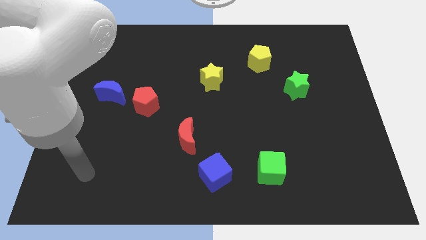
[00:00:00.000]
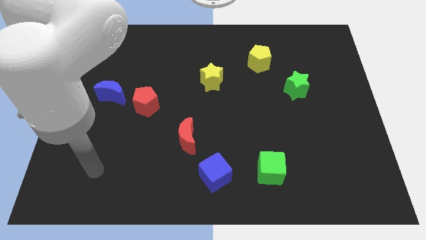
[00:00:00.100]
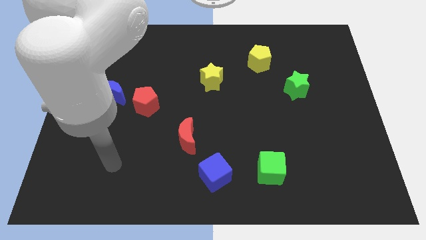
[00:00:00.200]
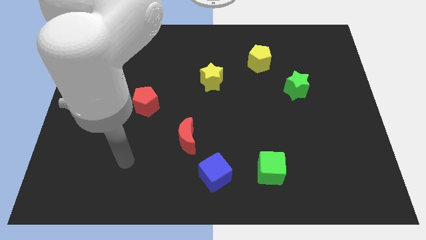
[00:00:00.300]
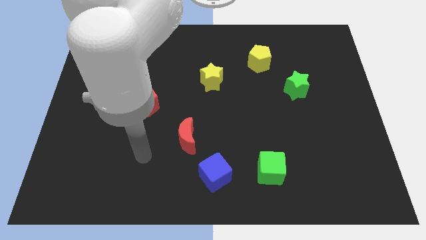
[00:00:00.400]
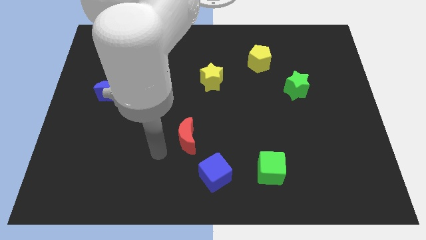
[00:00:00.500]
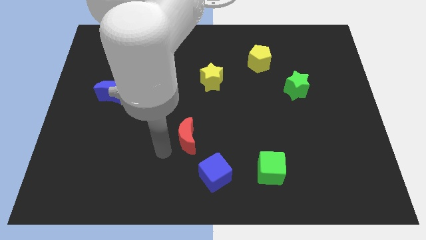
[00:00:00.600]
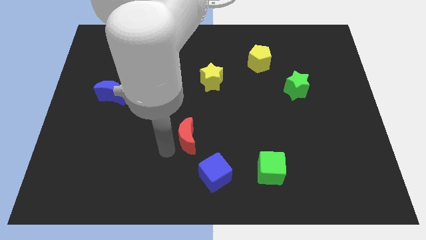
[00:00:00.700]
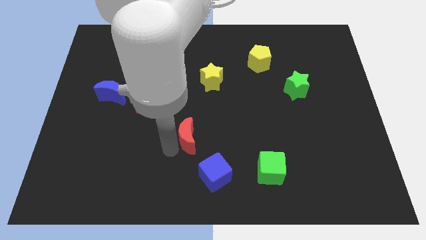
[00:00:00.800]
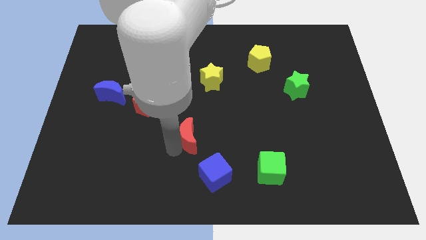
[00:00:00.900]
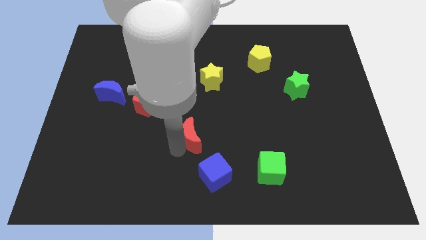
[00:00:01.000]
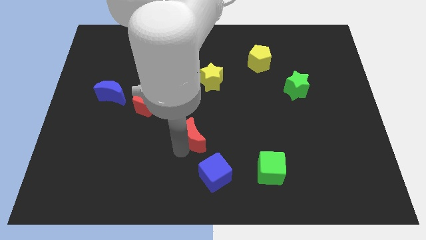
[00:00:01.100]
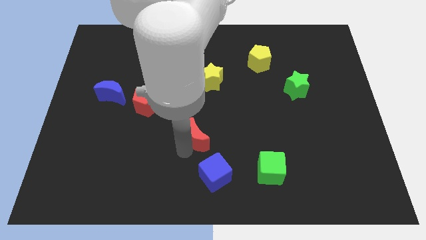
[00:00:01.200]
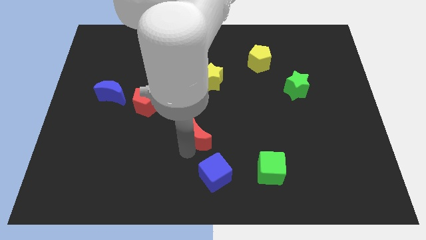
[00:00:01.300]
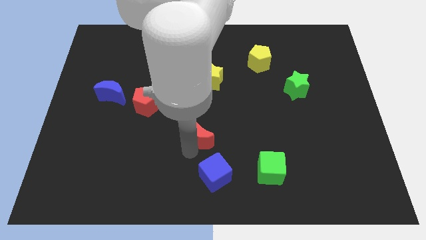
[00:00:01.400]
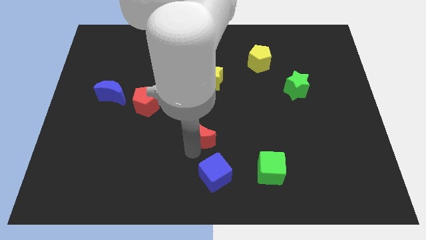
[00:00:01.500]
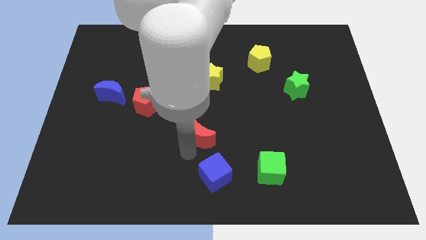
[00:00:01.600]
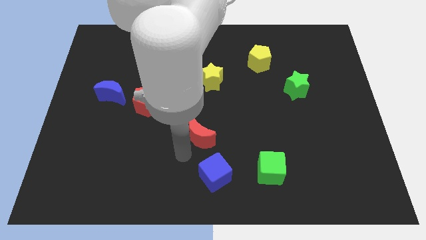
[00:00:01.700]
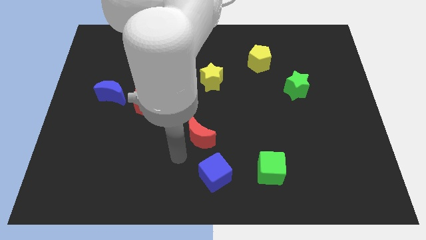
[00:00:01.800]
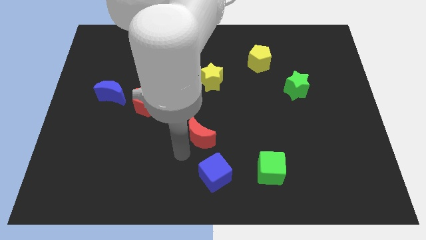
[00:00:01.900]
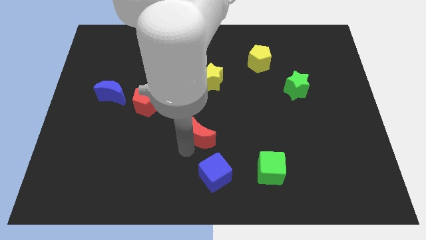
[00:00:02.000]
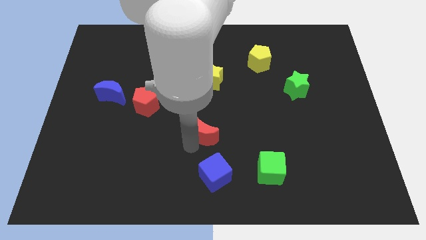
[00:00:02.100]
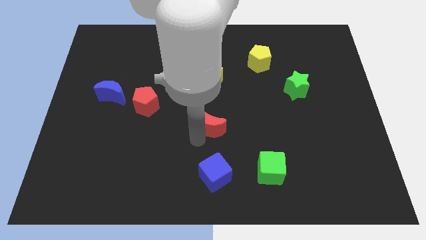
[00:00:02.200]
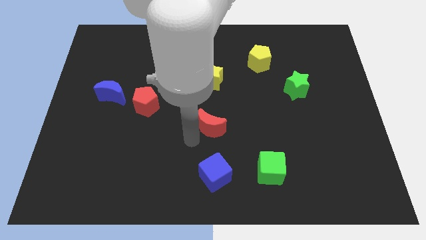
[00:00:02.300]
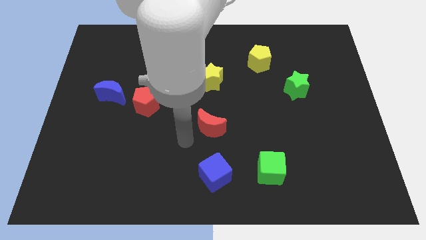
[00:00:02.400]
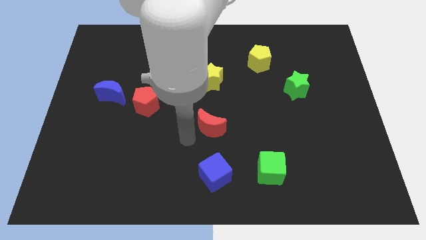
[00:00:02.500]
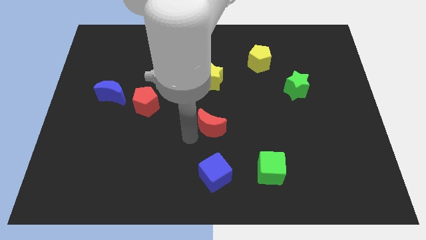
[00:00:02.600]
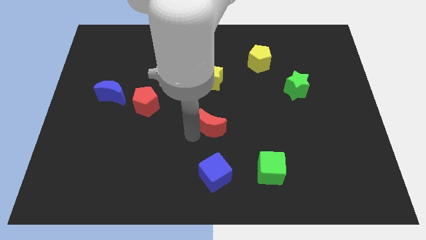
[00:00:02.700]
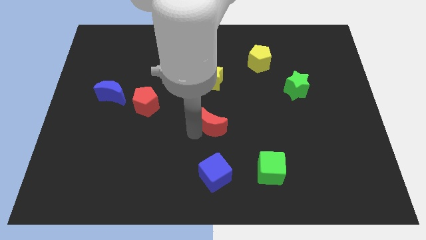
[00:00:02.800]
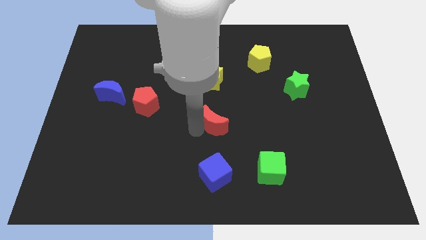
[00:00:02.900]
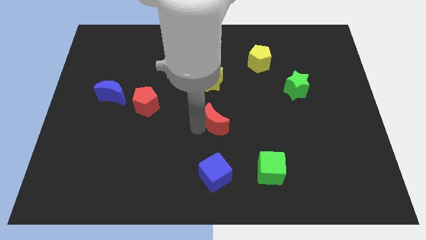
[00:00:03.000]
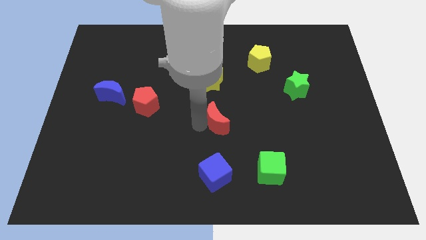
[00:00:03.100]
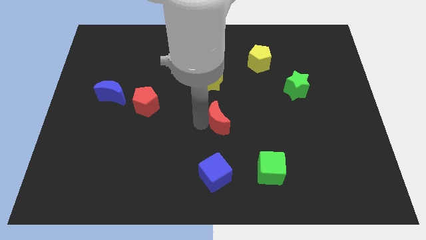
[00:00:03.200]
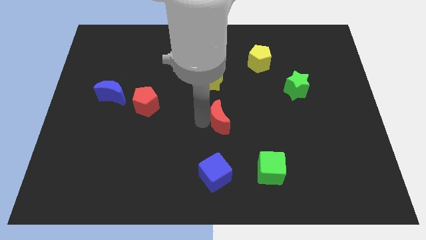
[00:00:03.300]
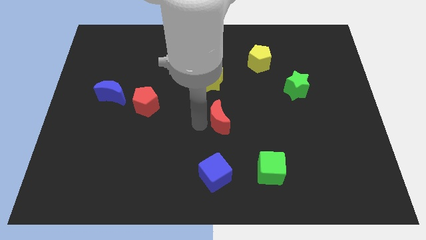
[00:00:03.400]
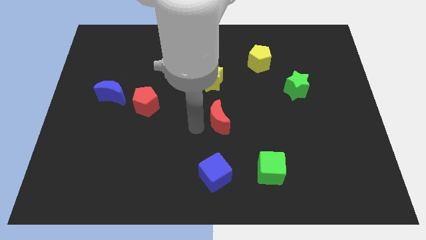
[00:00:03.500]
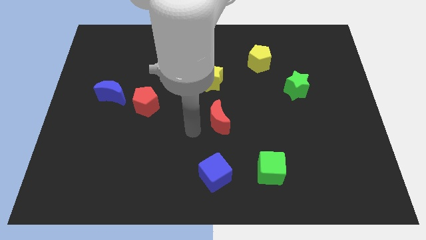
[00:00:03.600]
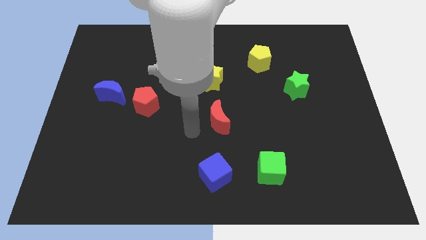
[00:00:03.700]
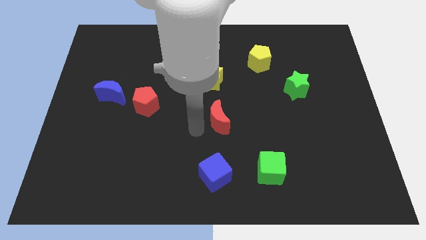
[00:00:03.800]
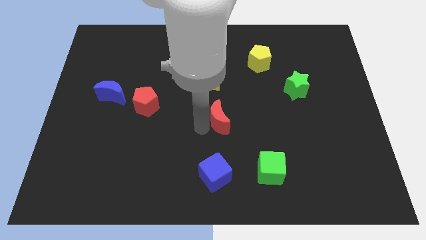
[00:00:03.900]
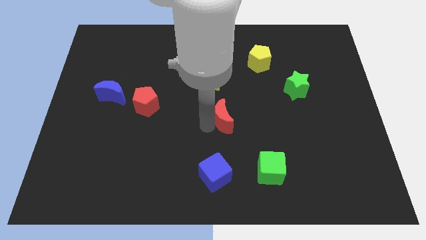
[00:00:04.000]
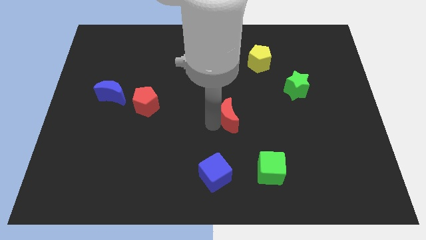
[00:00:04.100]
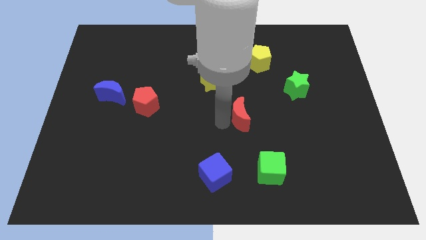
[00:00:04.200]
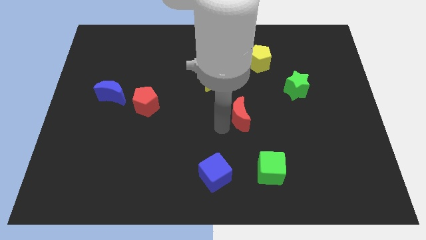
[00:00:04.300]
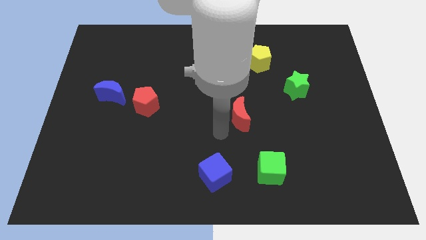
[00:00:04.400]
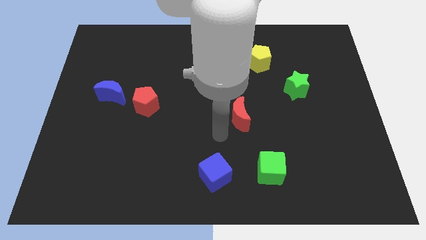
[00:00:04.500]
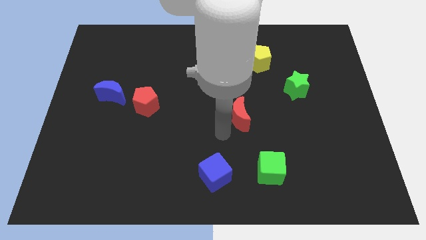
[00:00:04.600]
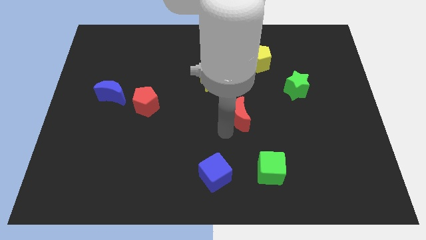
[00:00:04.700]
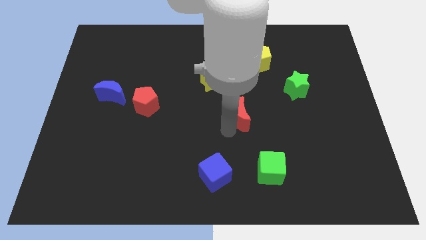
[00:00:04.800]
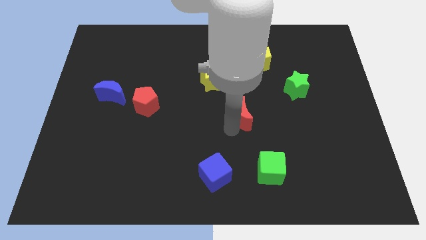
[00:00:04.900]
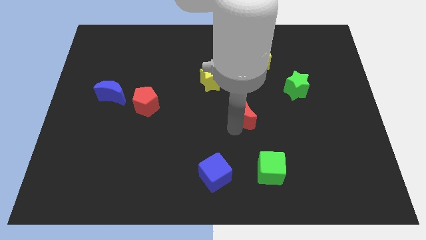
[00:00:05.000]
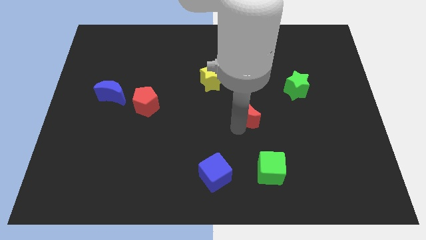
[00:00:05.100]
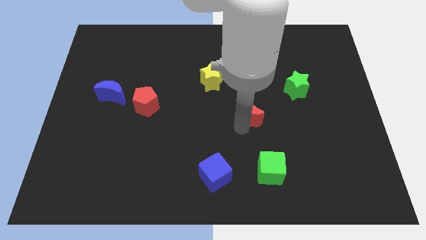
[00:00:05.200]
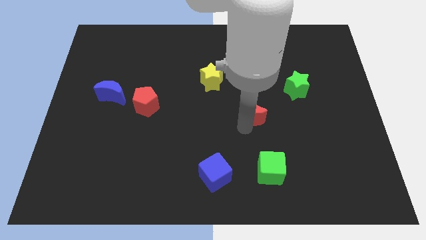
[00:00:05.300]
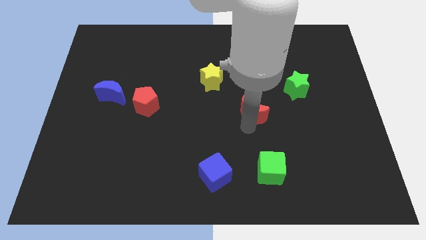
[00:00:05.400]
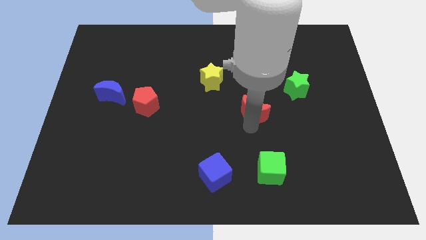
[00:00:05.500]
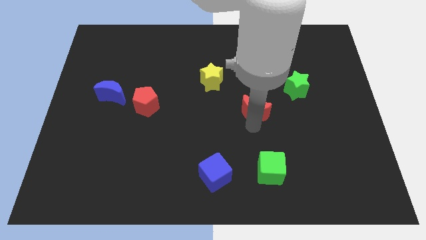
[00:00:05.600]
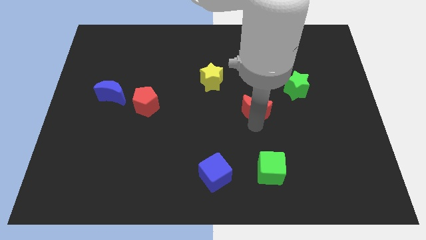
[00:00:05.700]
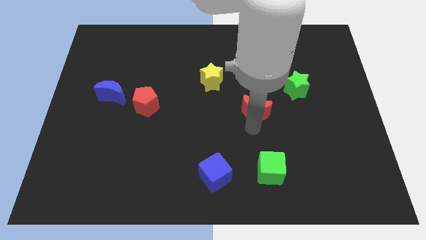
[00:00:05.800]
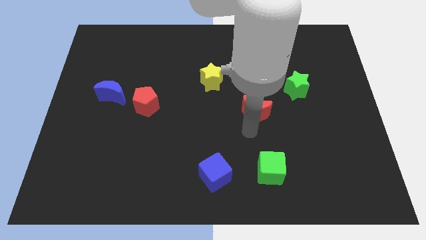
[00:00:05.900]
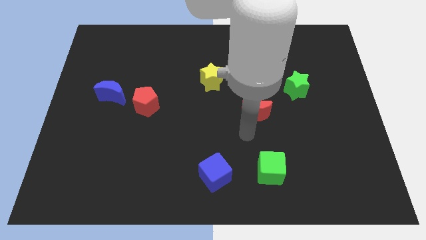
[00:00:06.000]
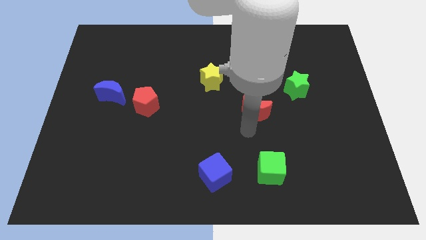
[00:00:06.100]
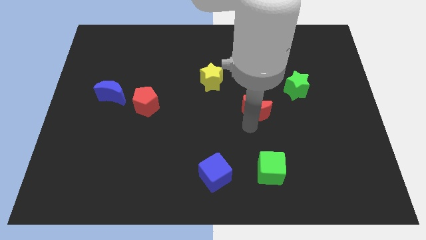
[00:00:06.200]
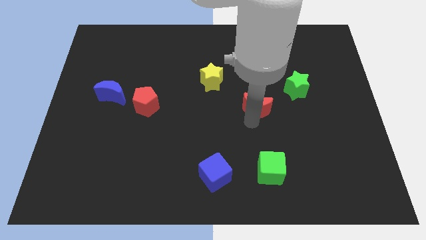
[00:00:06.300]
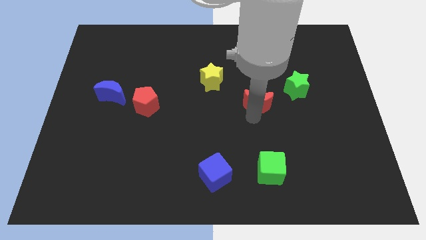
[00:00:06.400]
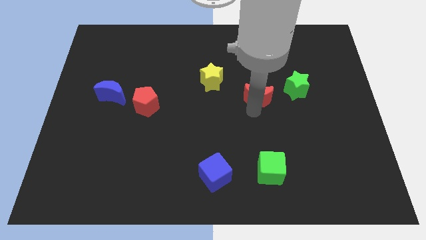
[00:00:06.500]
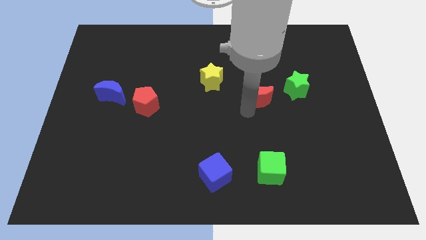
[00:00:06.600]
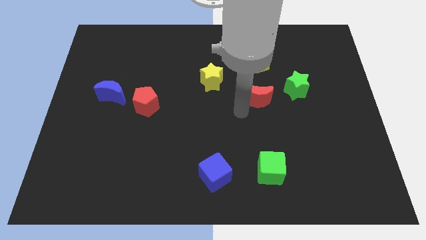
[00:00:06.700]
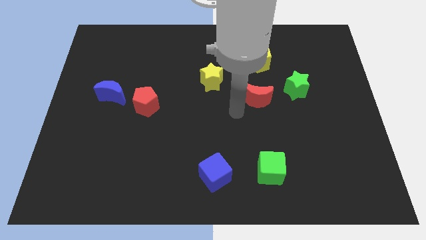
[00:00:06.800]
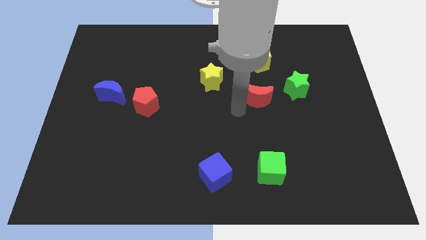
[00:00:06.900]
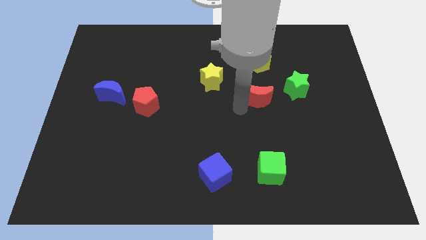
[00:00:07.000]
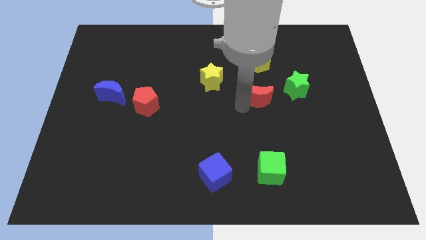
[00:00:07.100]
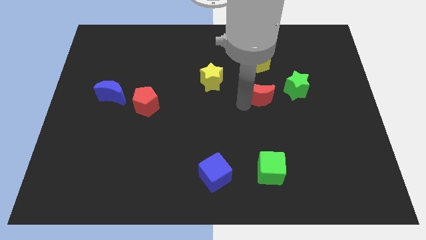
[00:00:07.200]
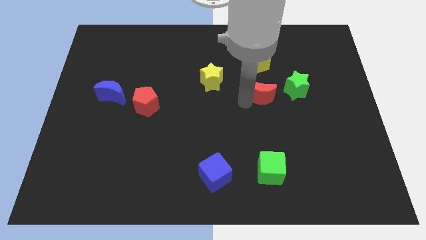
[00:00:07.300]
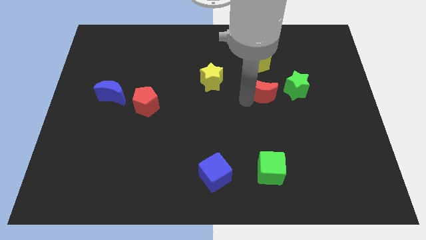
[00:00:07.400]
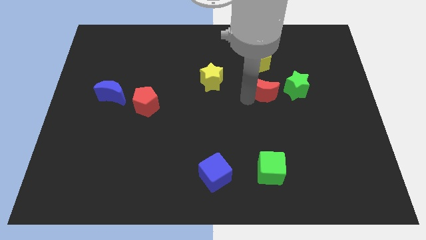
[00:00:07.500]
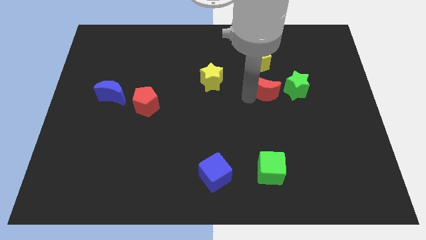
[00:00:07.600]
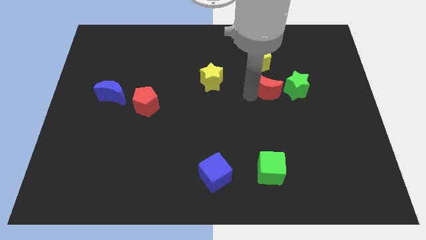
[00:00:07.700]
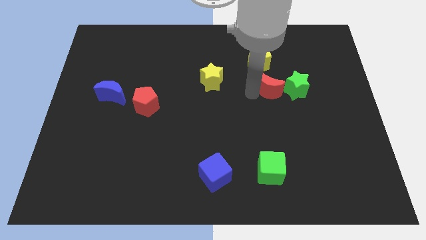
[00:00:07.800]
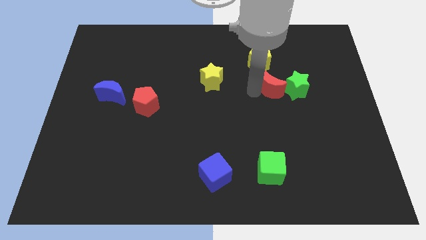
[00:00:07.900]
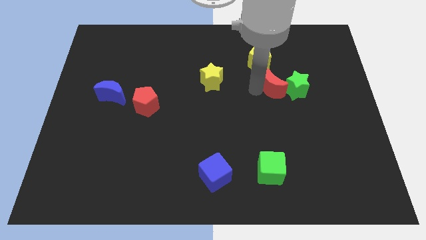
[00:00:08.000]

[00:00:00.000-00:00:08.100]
slide the red moon to the bottom right of the yellow pentagon
